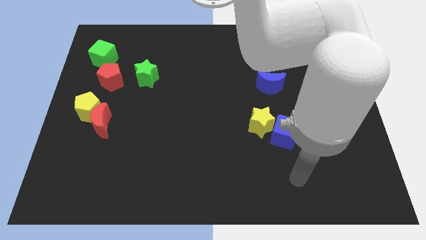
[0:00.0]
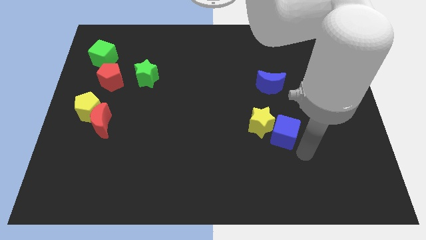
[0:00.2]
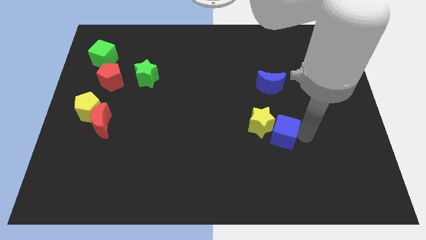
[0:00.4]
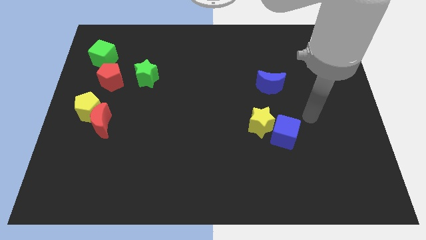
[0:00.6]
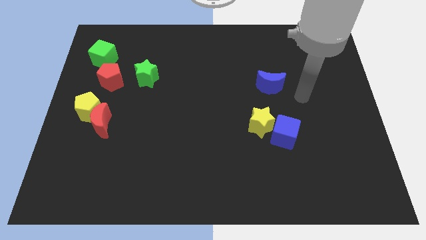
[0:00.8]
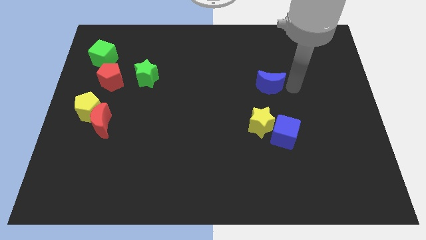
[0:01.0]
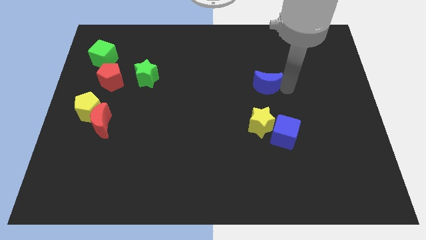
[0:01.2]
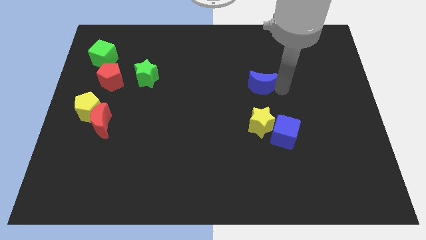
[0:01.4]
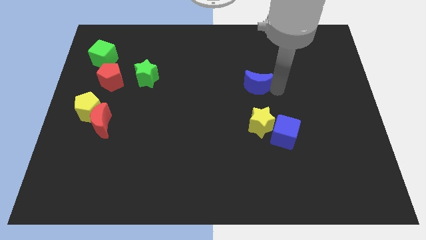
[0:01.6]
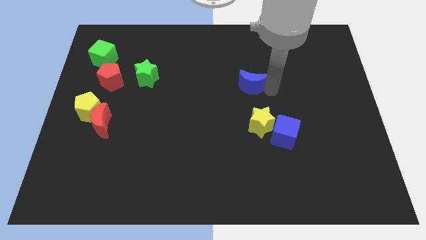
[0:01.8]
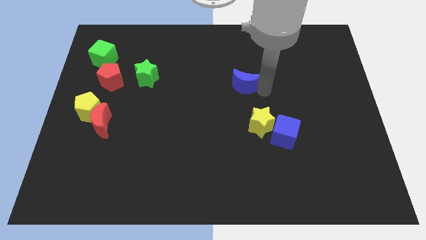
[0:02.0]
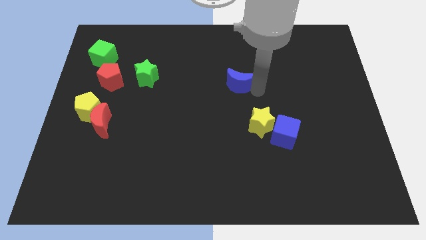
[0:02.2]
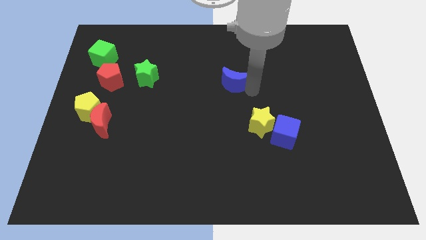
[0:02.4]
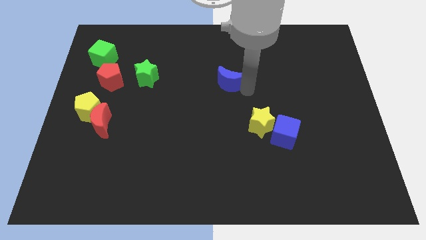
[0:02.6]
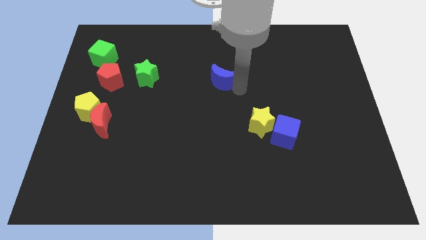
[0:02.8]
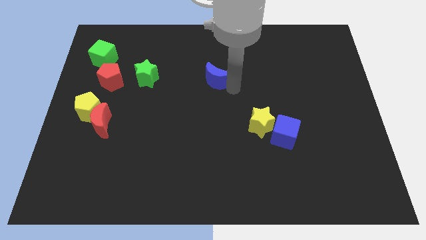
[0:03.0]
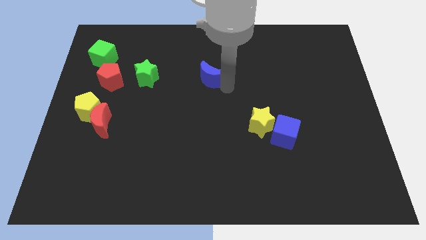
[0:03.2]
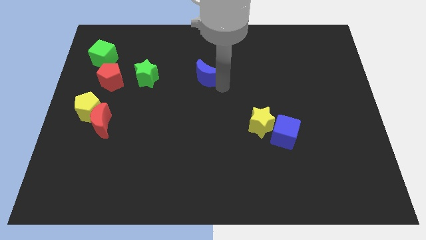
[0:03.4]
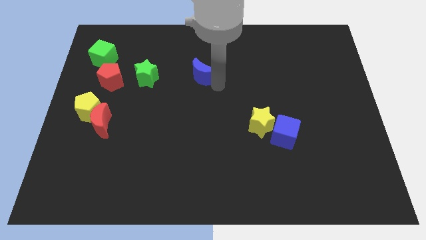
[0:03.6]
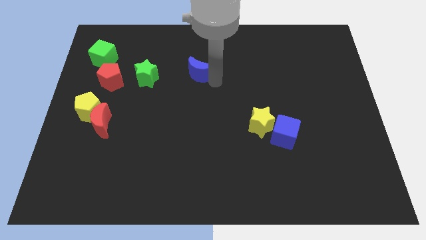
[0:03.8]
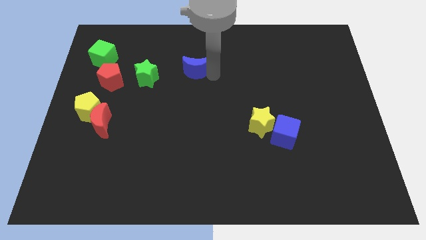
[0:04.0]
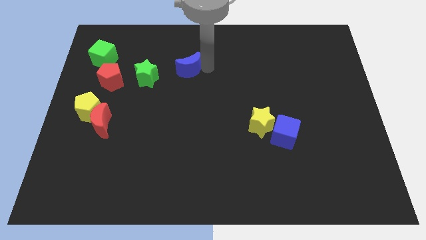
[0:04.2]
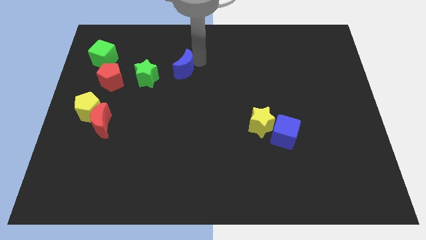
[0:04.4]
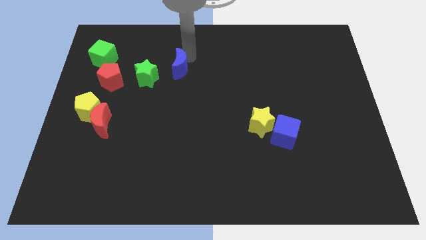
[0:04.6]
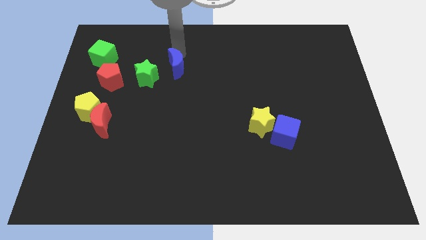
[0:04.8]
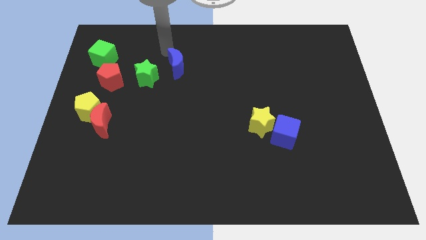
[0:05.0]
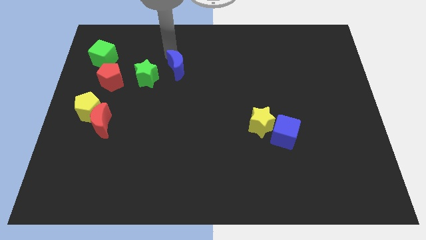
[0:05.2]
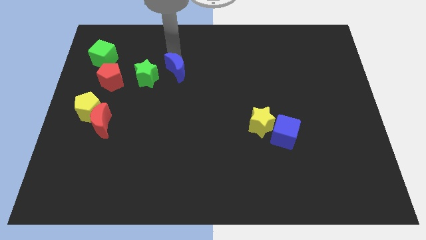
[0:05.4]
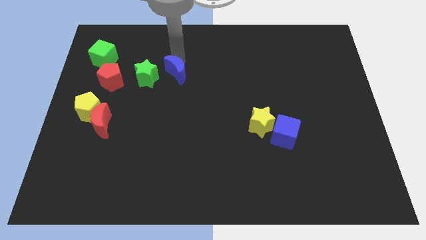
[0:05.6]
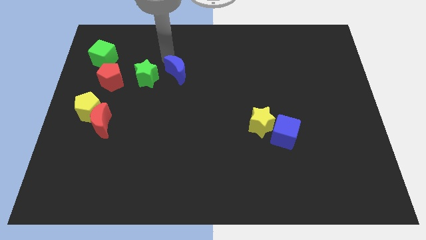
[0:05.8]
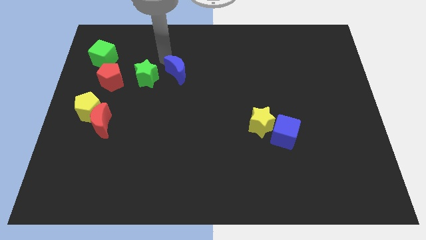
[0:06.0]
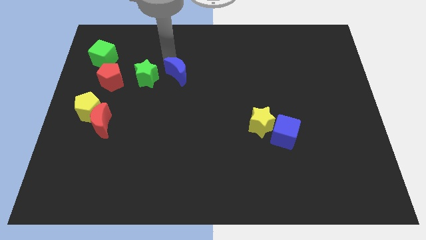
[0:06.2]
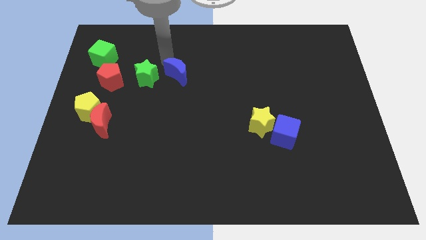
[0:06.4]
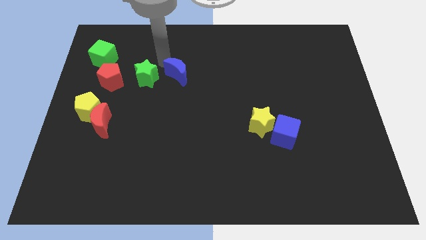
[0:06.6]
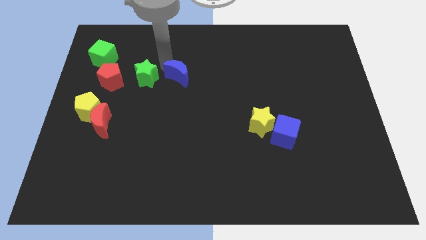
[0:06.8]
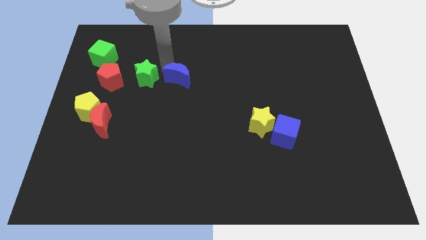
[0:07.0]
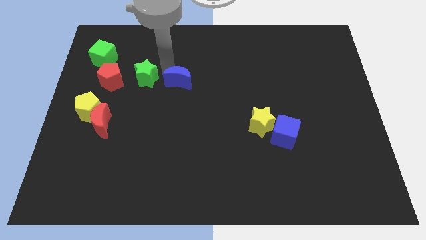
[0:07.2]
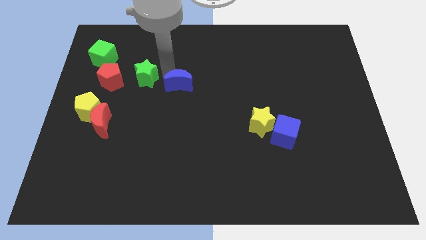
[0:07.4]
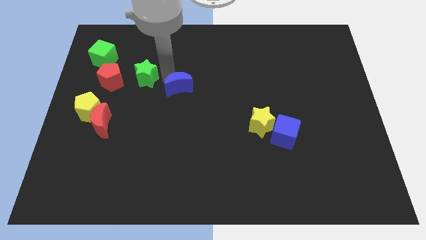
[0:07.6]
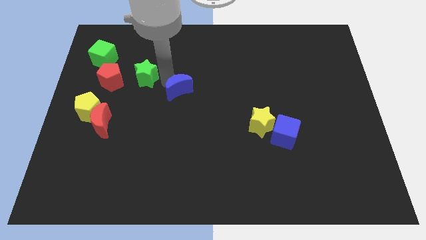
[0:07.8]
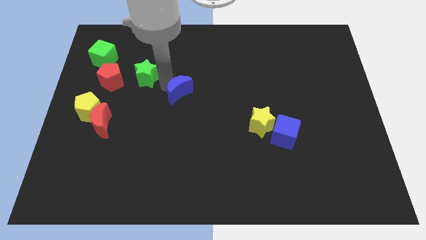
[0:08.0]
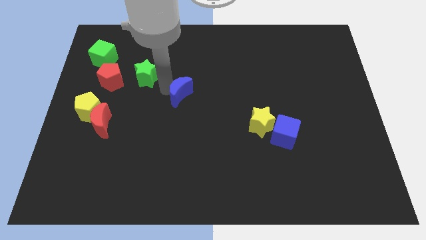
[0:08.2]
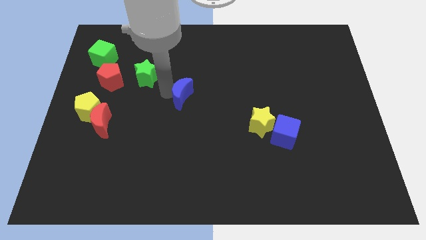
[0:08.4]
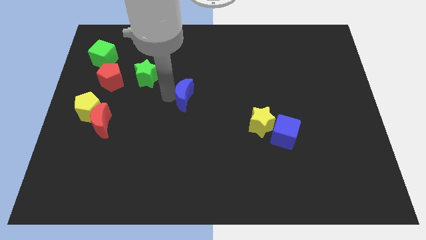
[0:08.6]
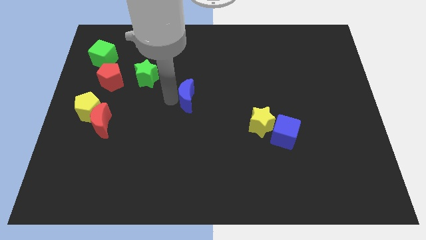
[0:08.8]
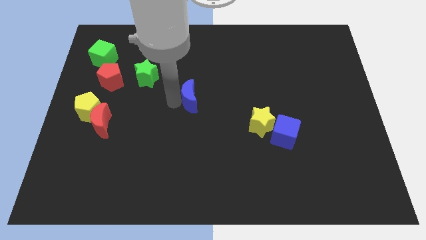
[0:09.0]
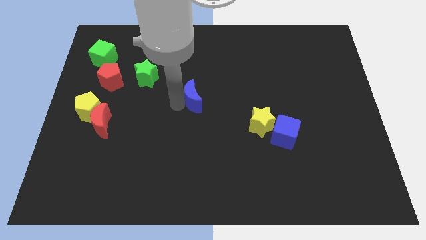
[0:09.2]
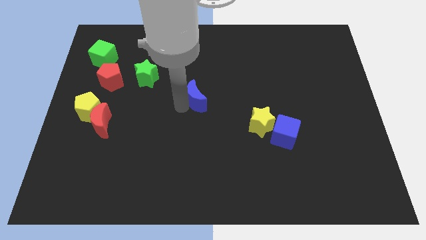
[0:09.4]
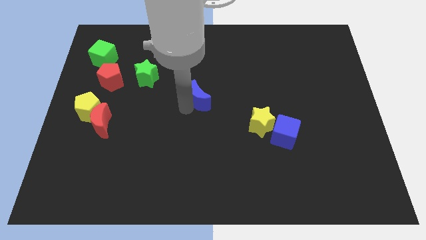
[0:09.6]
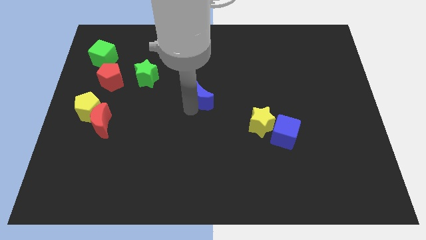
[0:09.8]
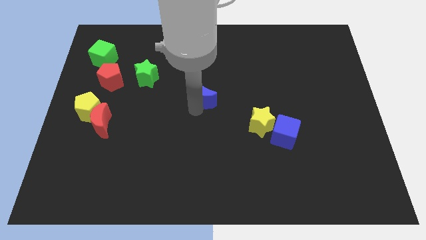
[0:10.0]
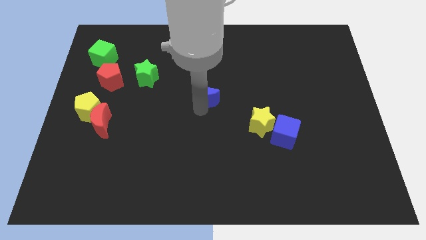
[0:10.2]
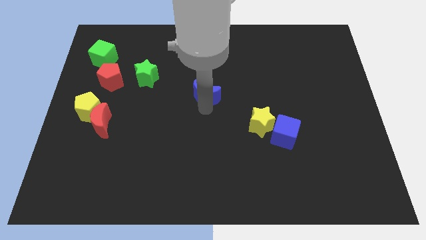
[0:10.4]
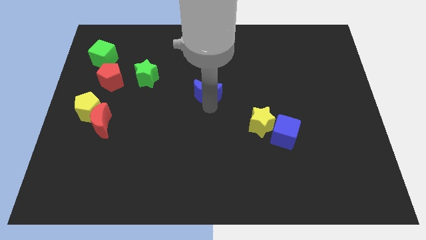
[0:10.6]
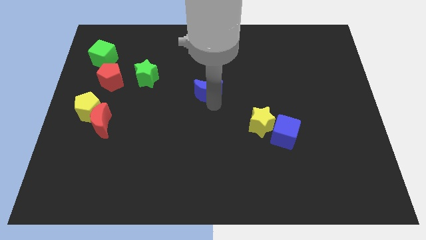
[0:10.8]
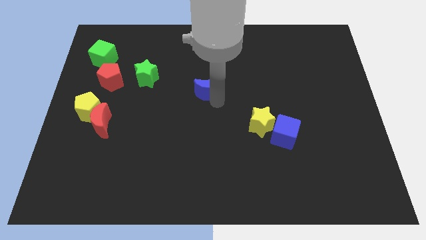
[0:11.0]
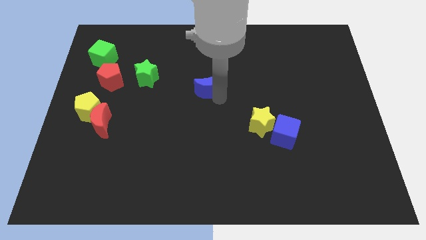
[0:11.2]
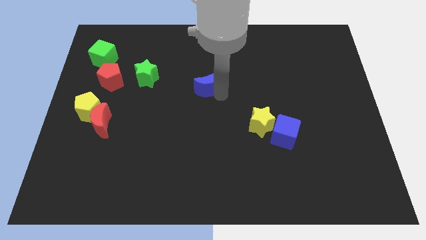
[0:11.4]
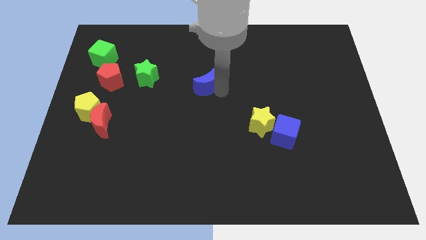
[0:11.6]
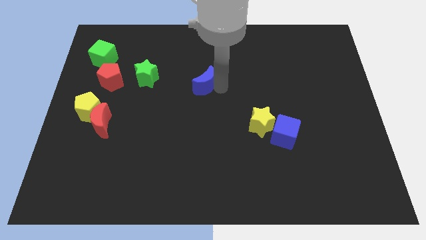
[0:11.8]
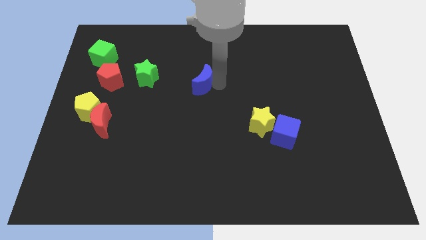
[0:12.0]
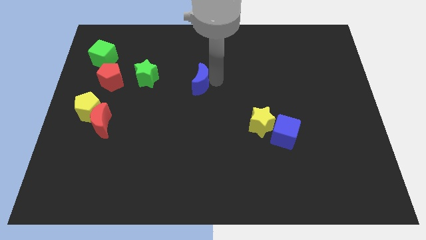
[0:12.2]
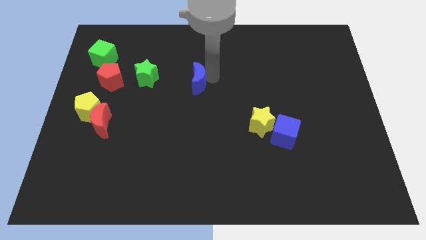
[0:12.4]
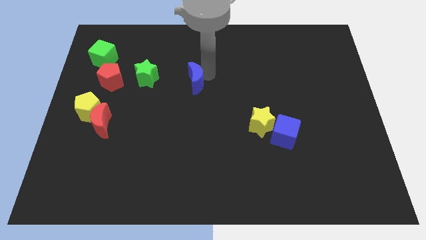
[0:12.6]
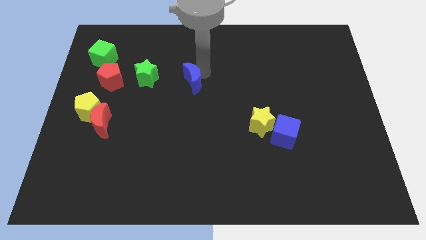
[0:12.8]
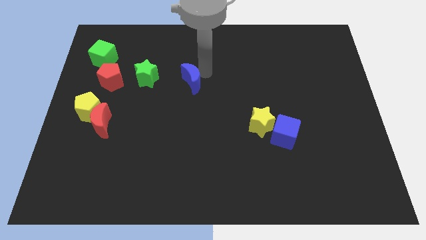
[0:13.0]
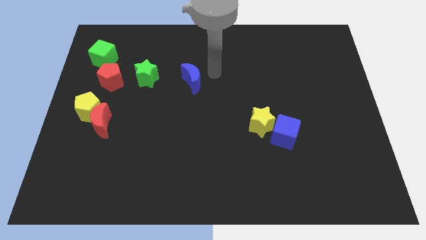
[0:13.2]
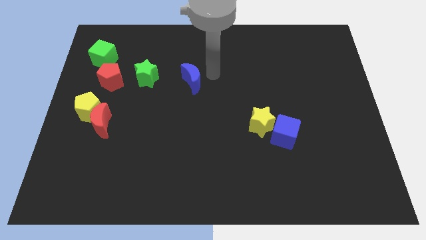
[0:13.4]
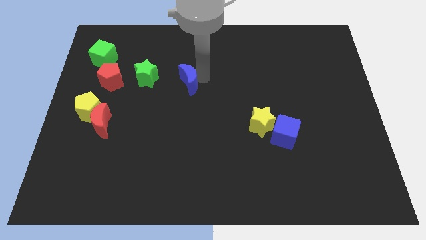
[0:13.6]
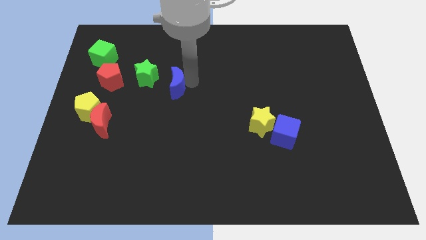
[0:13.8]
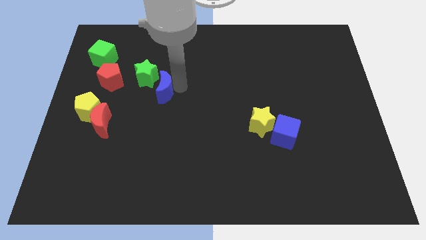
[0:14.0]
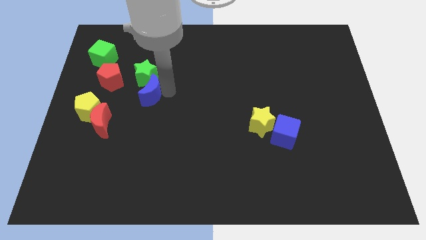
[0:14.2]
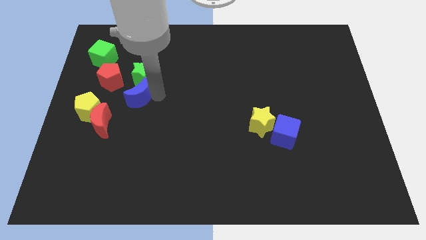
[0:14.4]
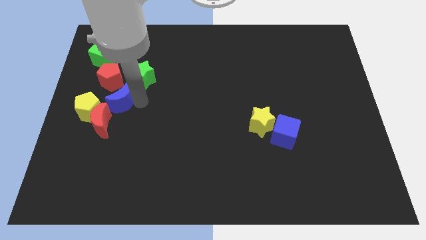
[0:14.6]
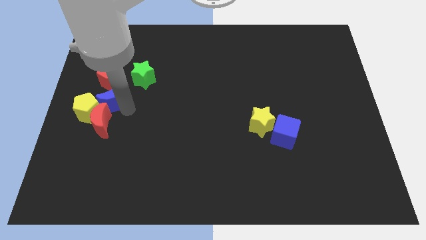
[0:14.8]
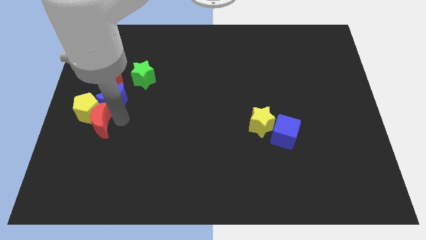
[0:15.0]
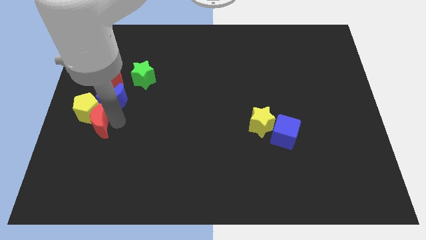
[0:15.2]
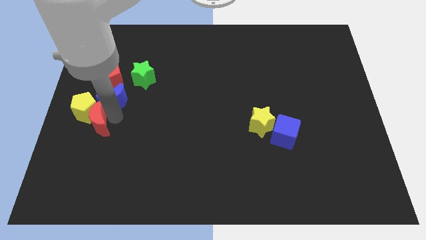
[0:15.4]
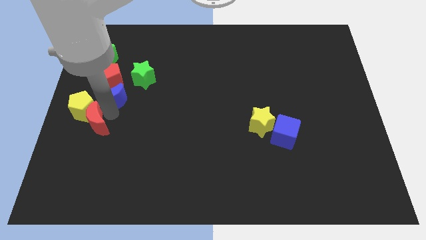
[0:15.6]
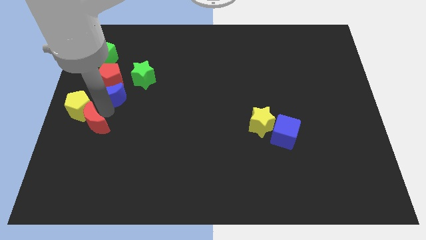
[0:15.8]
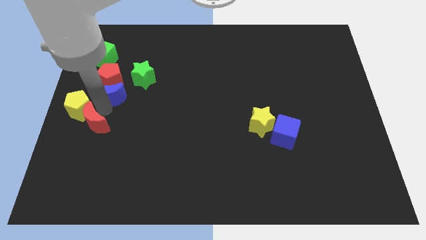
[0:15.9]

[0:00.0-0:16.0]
move the blue moon to the red pentagon
